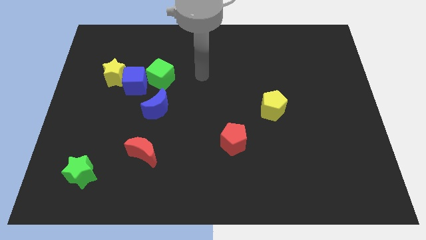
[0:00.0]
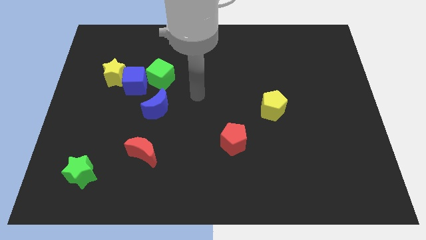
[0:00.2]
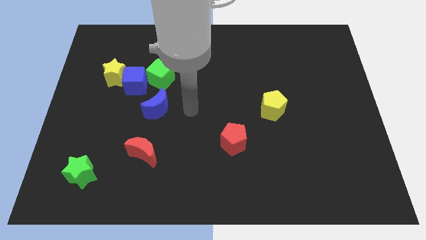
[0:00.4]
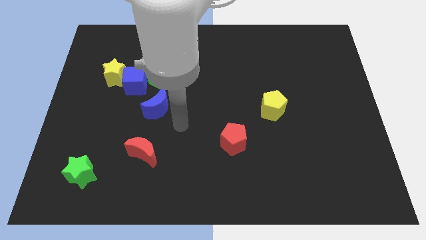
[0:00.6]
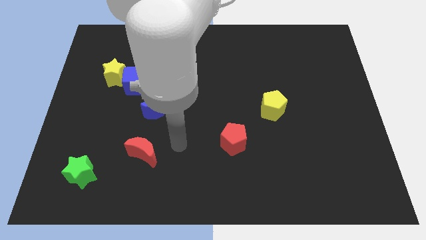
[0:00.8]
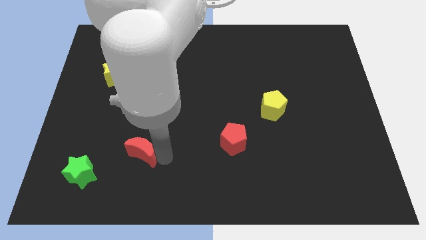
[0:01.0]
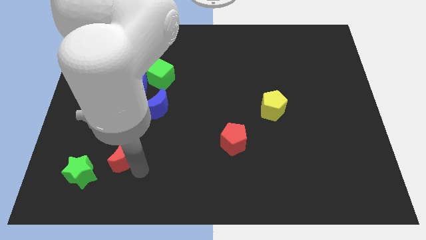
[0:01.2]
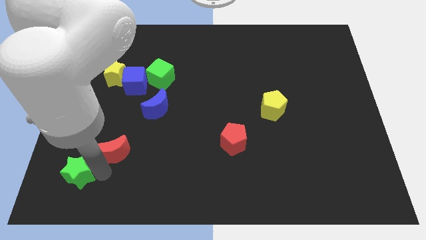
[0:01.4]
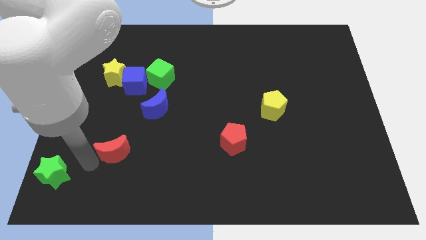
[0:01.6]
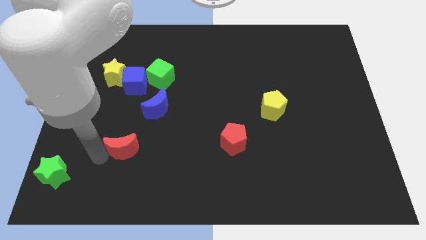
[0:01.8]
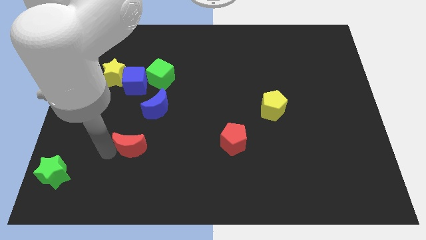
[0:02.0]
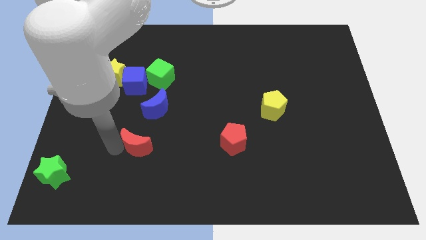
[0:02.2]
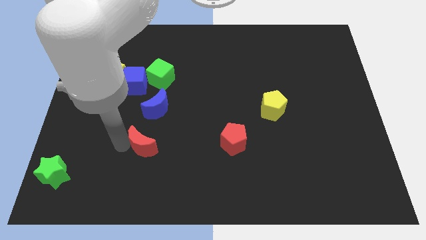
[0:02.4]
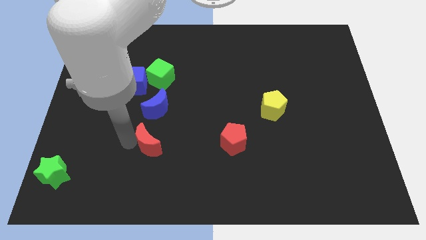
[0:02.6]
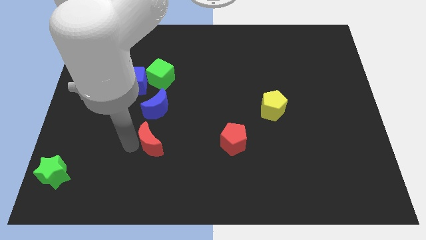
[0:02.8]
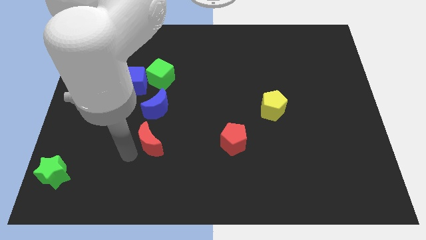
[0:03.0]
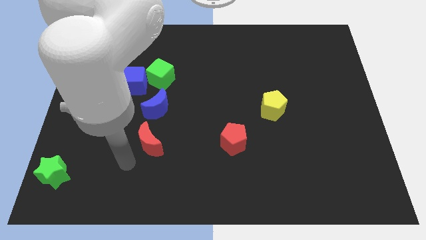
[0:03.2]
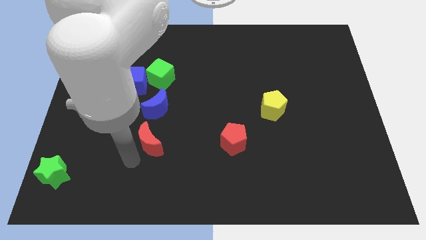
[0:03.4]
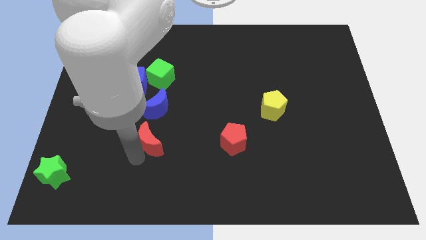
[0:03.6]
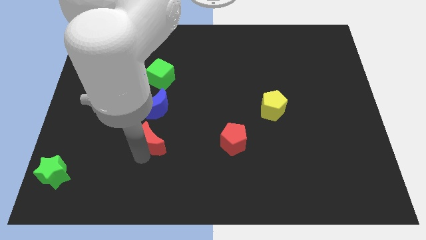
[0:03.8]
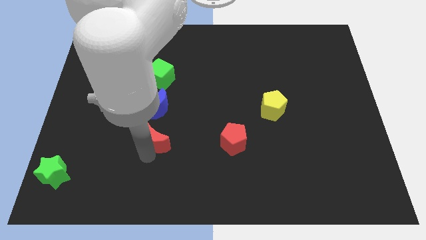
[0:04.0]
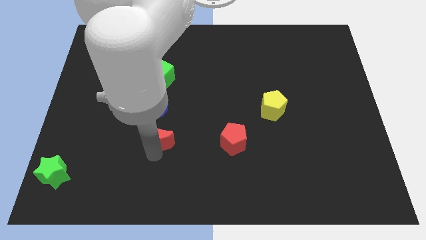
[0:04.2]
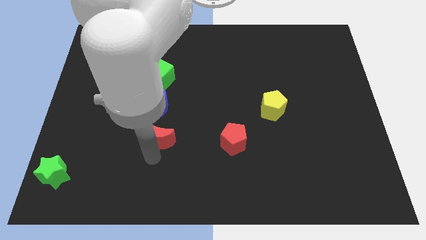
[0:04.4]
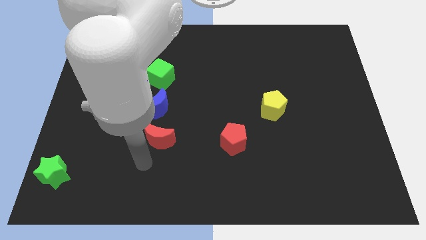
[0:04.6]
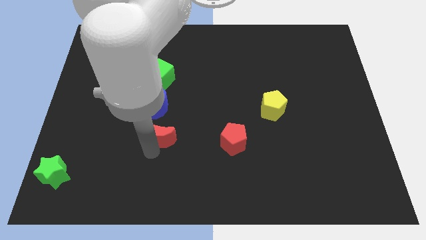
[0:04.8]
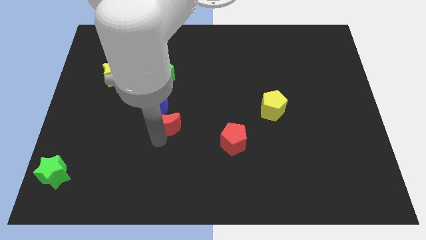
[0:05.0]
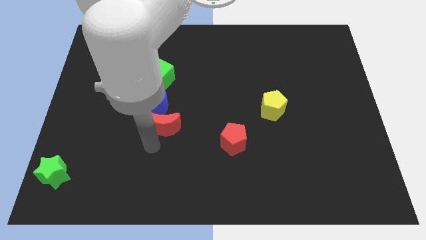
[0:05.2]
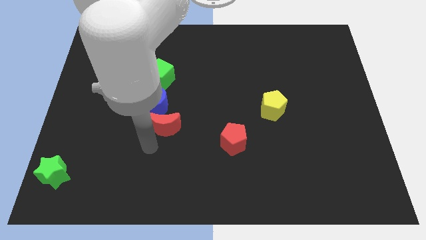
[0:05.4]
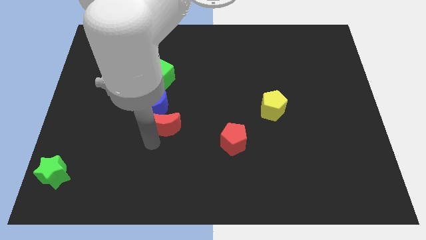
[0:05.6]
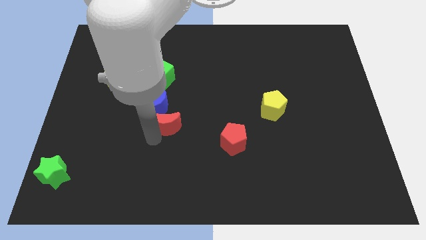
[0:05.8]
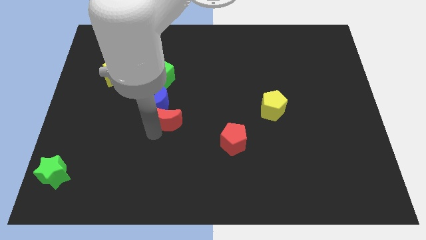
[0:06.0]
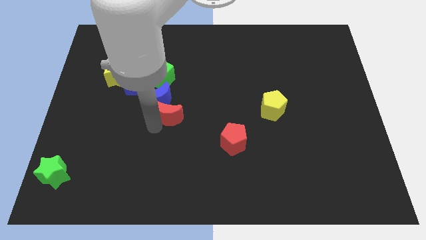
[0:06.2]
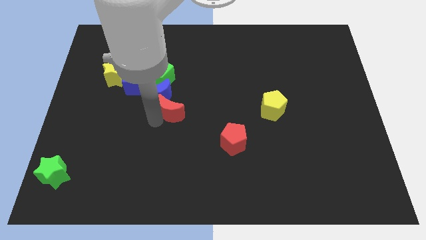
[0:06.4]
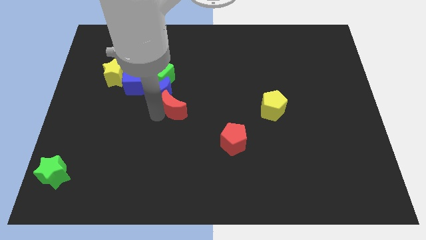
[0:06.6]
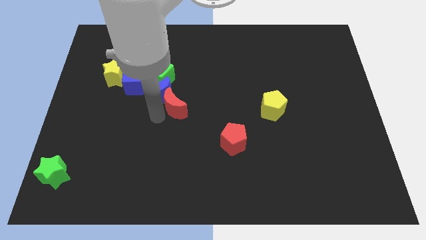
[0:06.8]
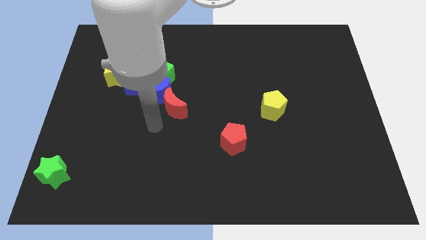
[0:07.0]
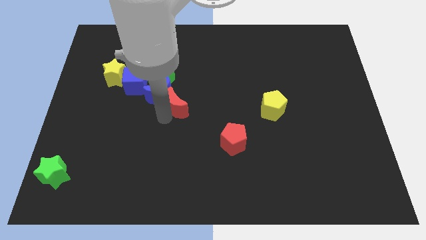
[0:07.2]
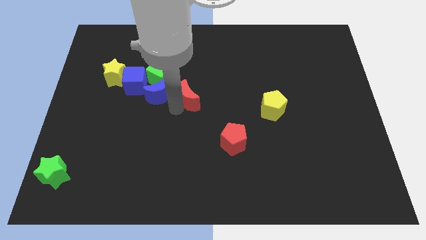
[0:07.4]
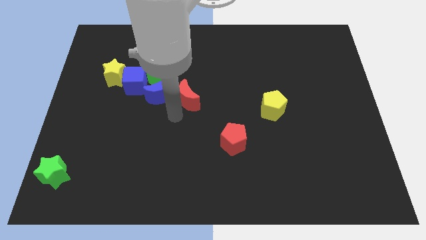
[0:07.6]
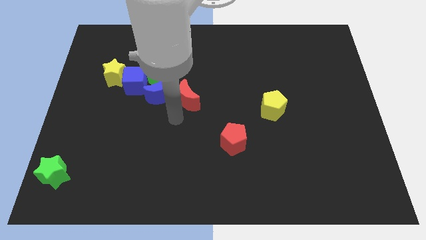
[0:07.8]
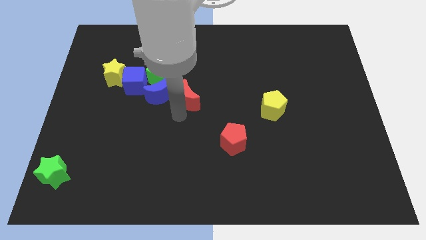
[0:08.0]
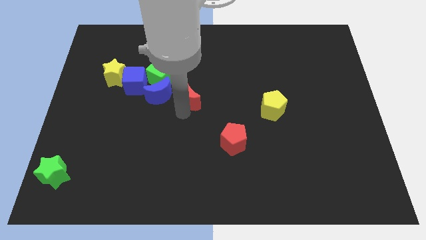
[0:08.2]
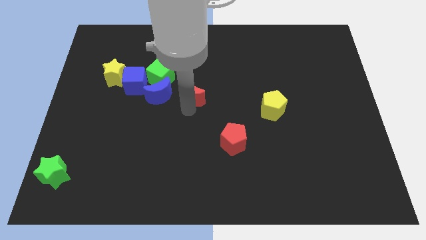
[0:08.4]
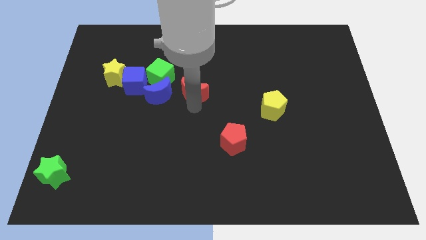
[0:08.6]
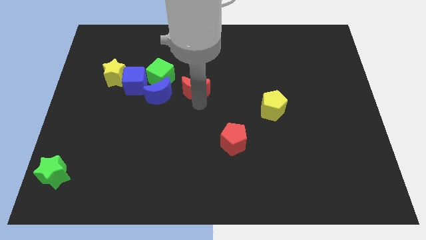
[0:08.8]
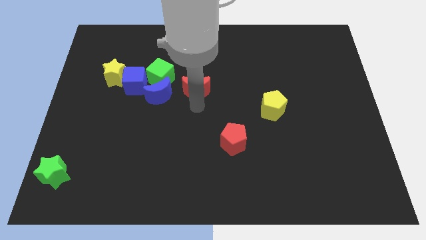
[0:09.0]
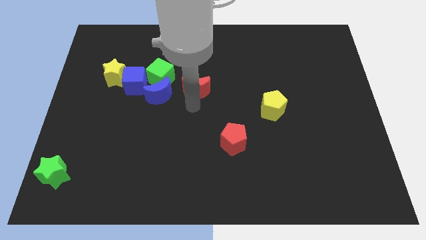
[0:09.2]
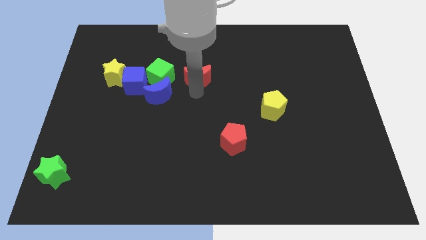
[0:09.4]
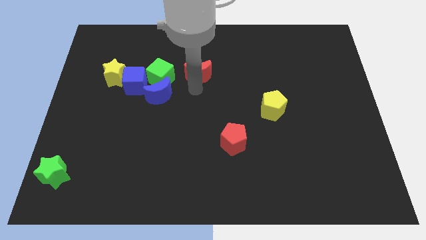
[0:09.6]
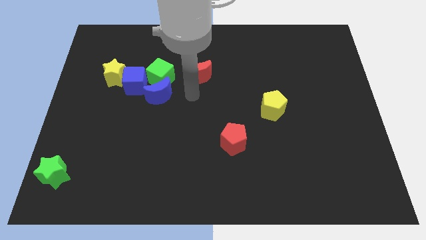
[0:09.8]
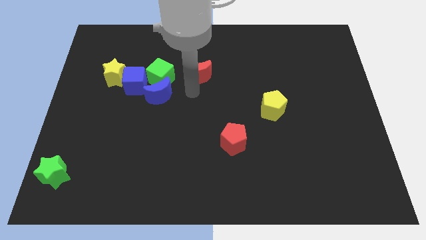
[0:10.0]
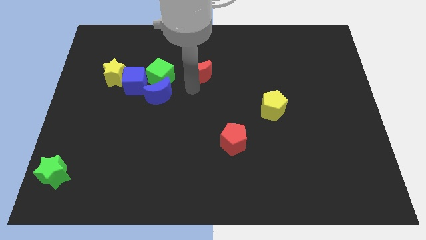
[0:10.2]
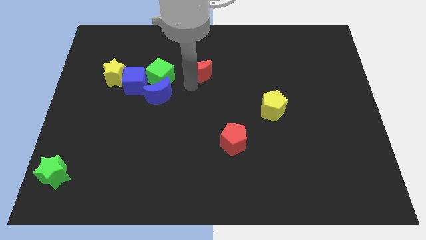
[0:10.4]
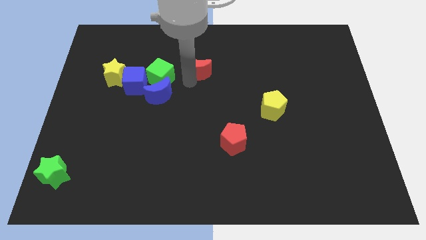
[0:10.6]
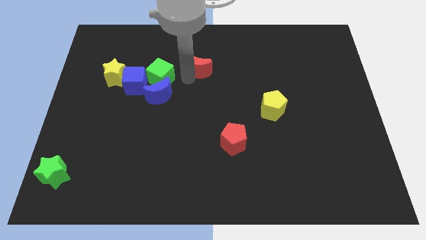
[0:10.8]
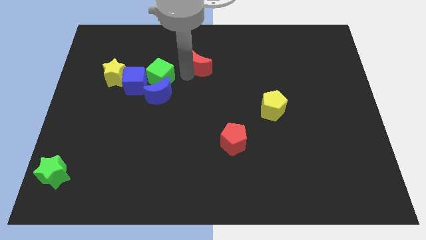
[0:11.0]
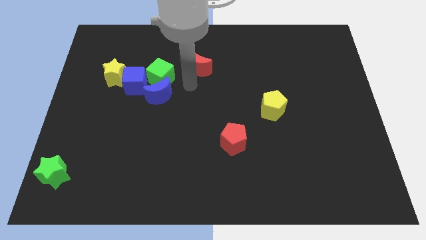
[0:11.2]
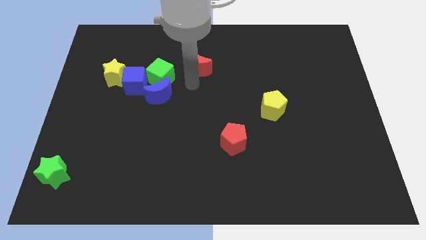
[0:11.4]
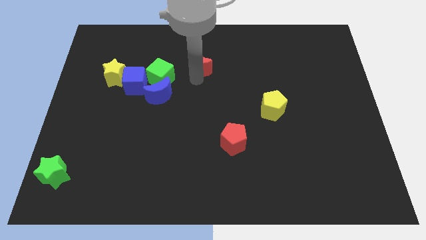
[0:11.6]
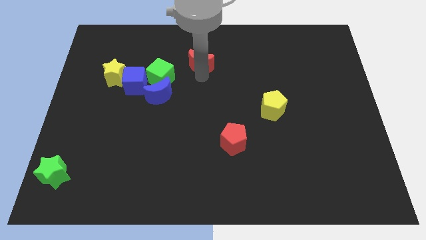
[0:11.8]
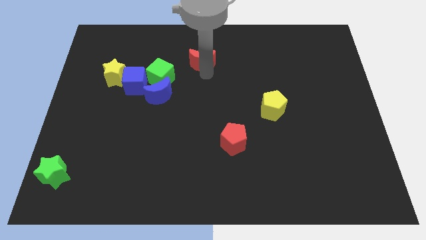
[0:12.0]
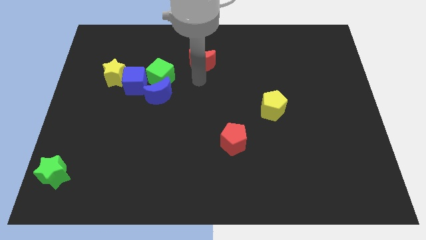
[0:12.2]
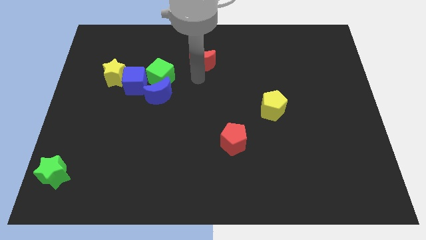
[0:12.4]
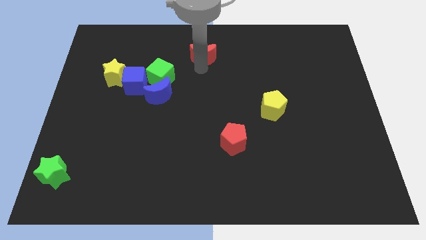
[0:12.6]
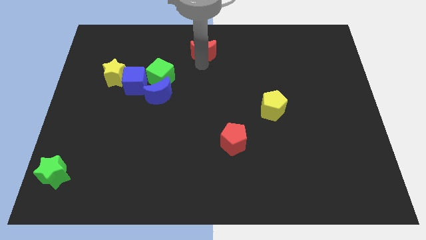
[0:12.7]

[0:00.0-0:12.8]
push the red moon to the top
